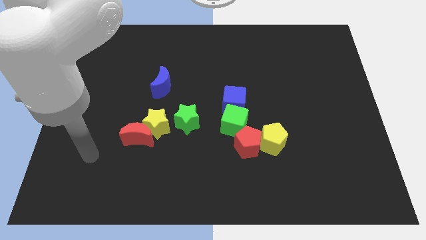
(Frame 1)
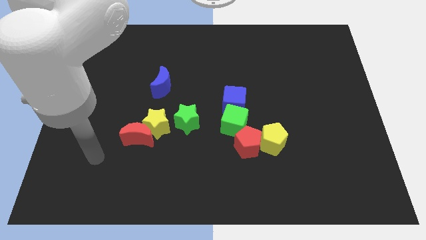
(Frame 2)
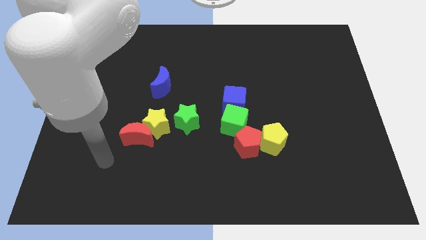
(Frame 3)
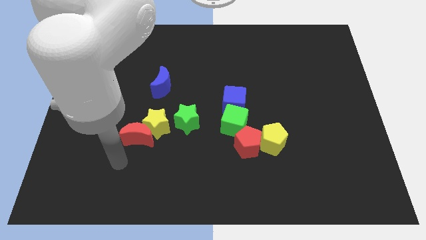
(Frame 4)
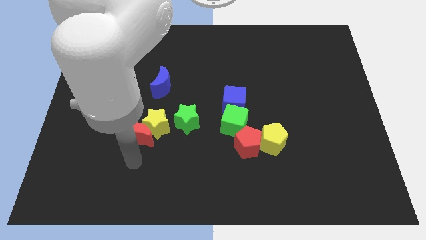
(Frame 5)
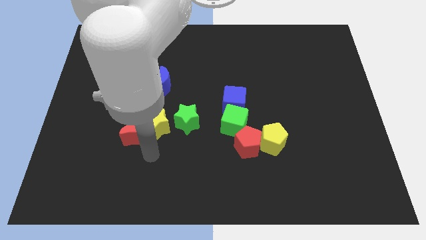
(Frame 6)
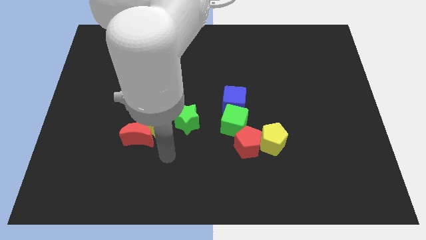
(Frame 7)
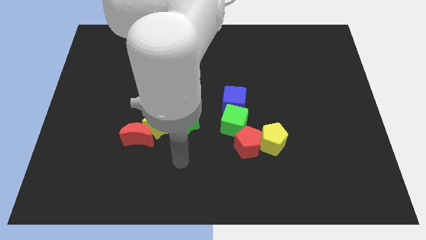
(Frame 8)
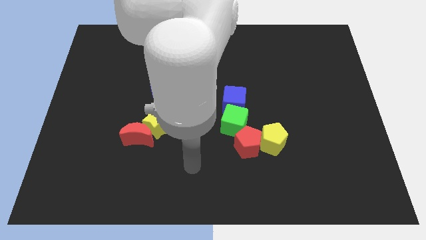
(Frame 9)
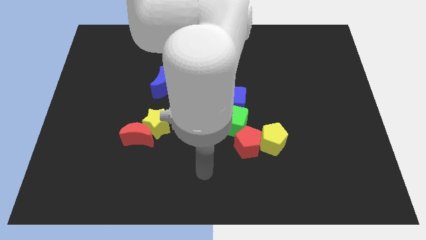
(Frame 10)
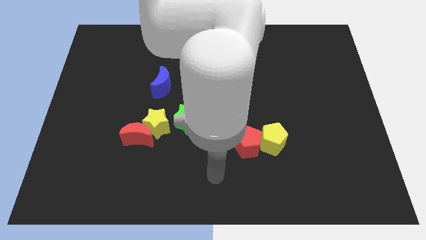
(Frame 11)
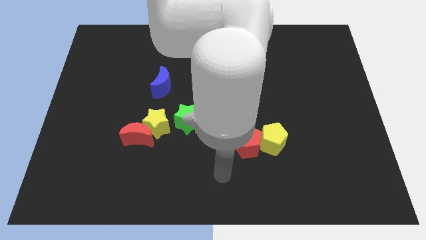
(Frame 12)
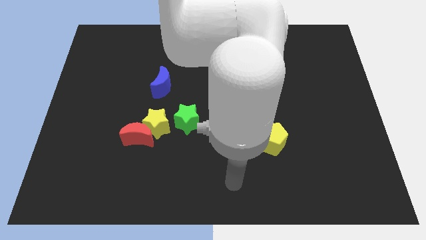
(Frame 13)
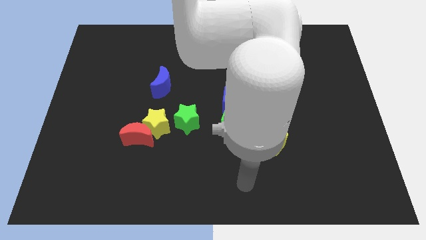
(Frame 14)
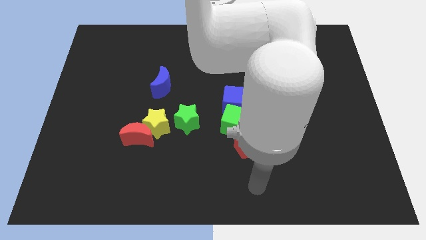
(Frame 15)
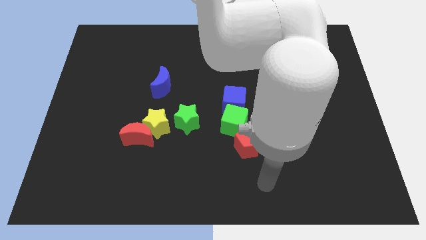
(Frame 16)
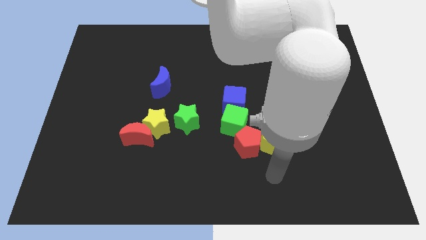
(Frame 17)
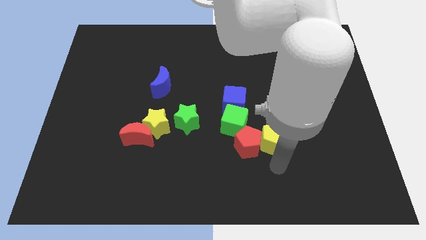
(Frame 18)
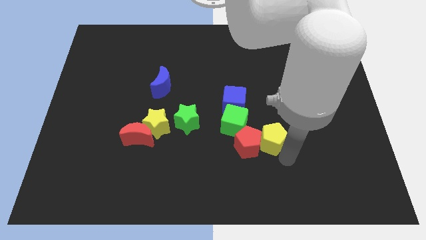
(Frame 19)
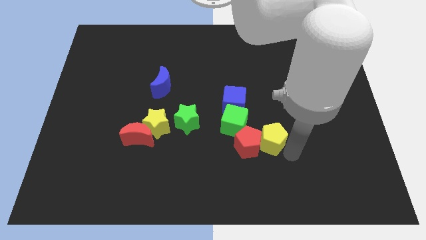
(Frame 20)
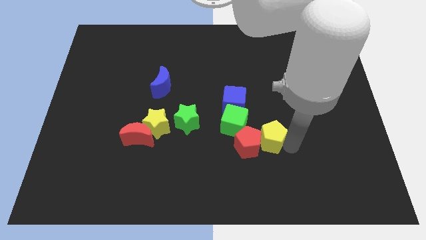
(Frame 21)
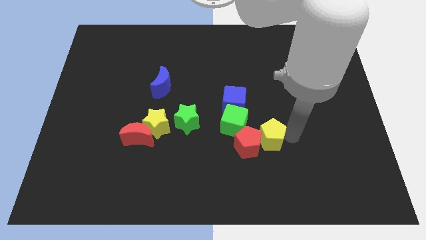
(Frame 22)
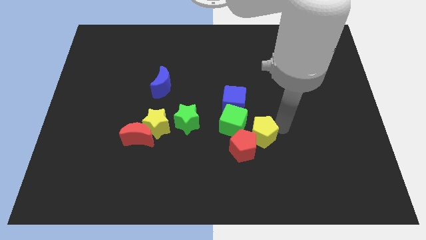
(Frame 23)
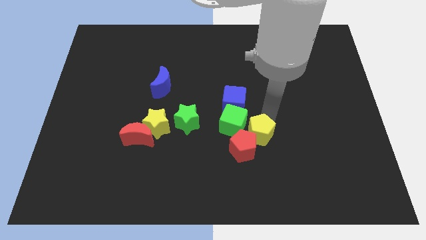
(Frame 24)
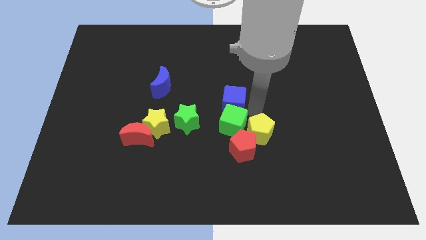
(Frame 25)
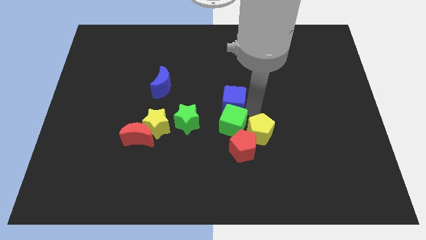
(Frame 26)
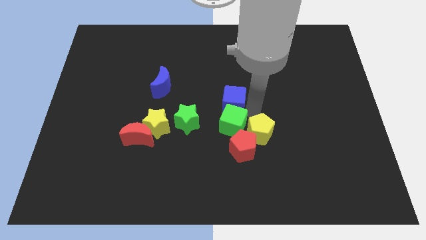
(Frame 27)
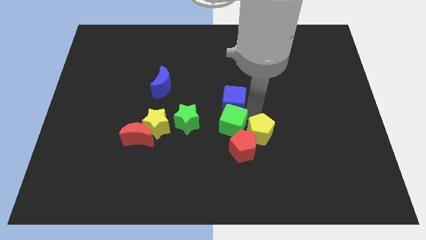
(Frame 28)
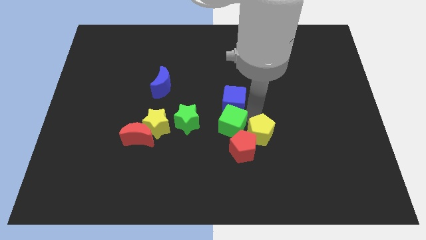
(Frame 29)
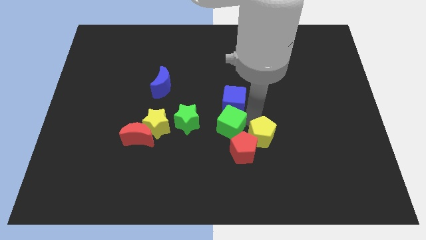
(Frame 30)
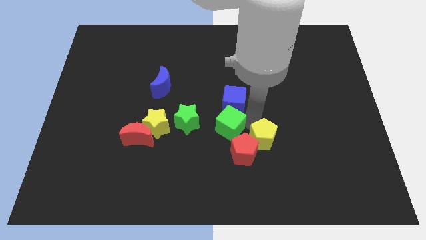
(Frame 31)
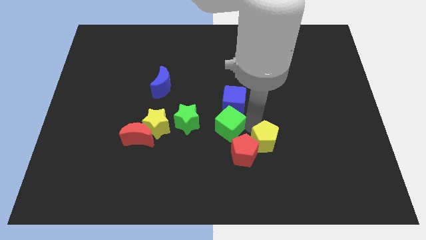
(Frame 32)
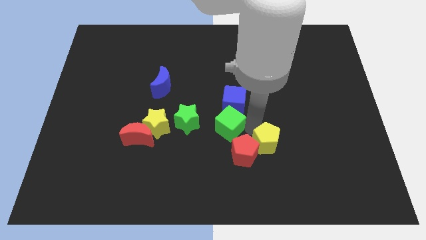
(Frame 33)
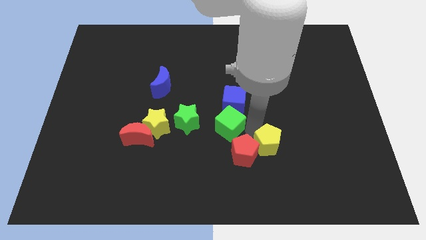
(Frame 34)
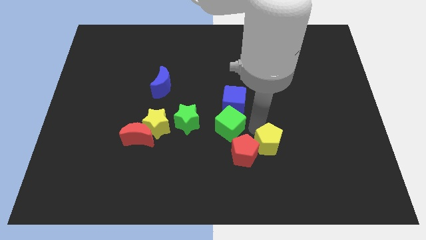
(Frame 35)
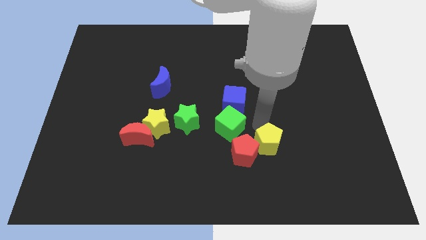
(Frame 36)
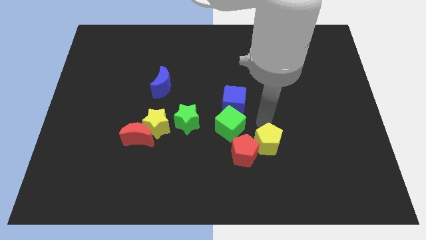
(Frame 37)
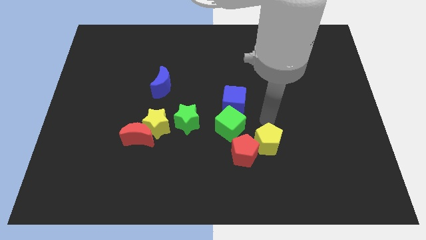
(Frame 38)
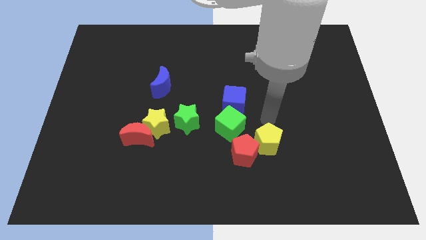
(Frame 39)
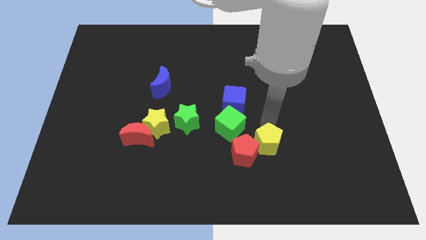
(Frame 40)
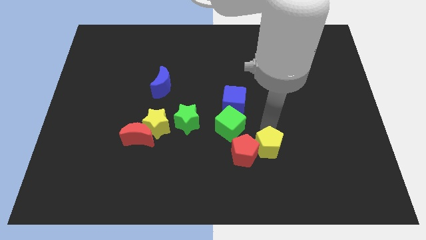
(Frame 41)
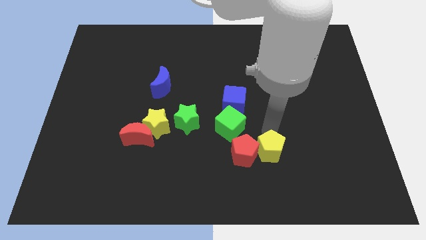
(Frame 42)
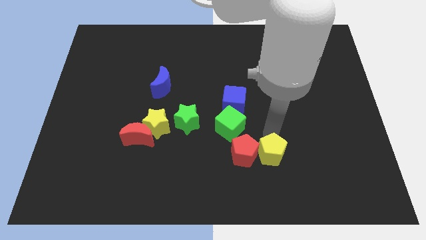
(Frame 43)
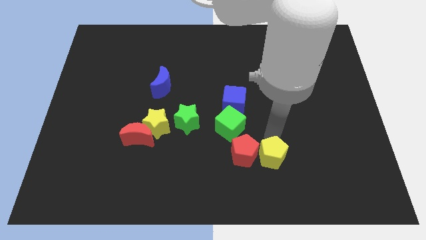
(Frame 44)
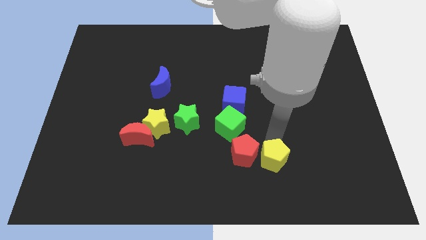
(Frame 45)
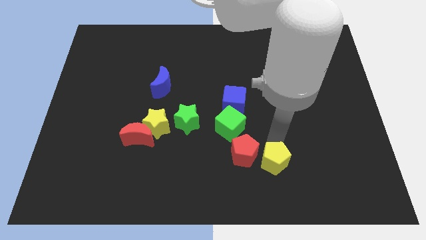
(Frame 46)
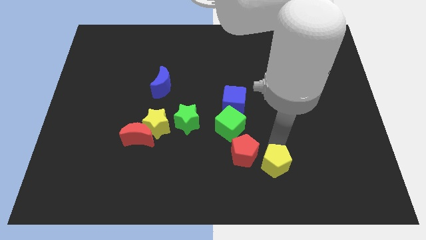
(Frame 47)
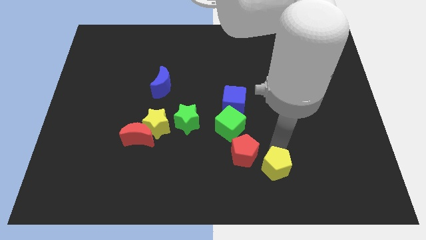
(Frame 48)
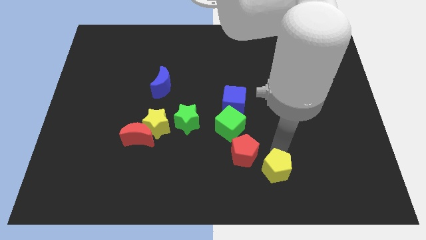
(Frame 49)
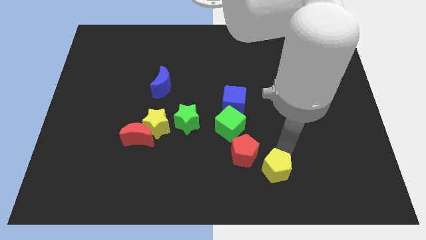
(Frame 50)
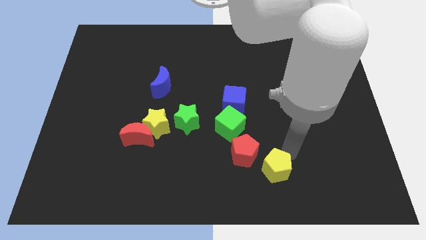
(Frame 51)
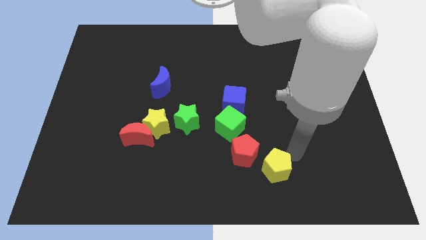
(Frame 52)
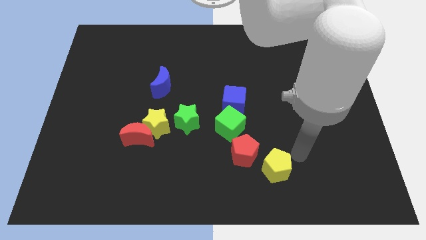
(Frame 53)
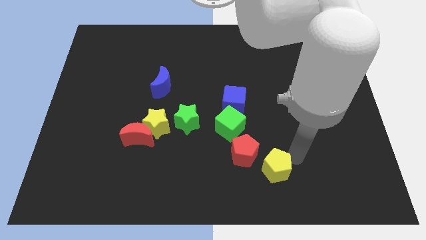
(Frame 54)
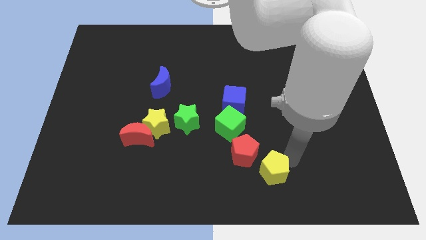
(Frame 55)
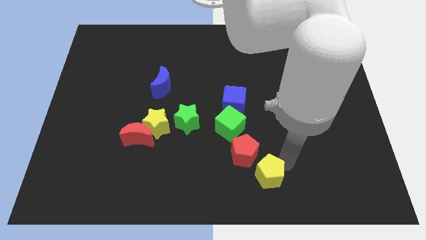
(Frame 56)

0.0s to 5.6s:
put the yellow pentagon to the bottom

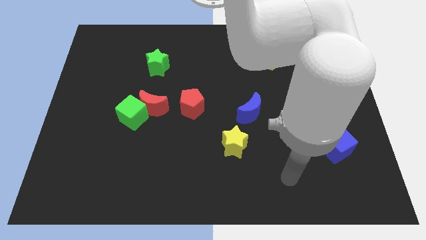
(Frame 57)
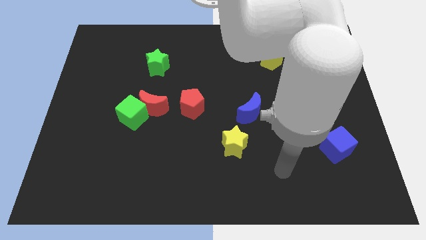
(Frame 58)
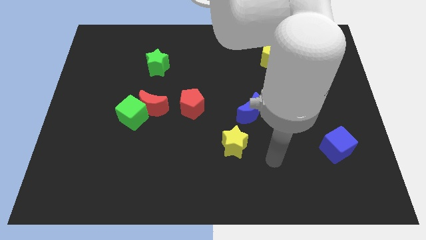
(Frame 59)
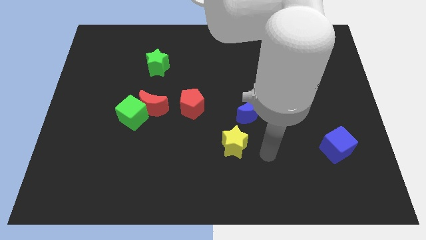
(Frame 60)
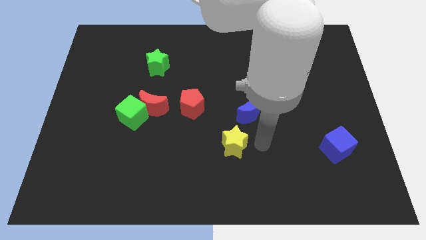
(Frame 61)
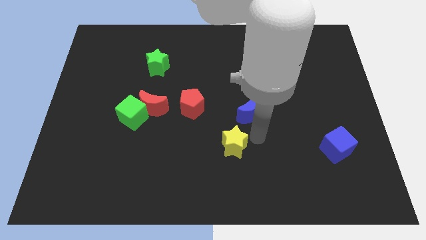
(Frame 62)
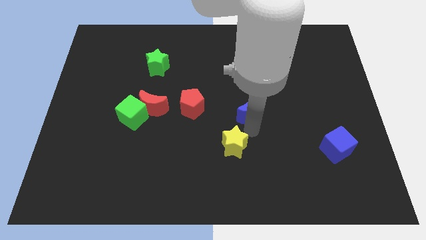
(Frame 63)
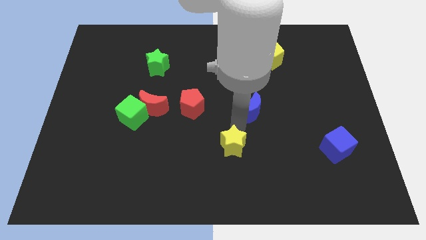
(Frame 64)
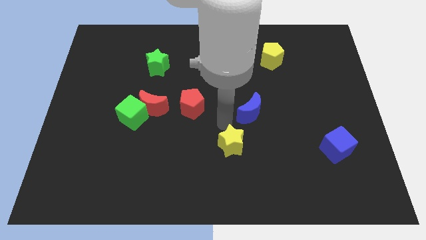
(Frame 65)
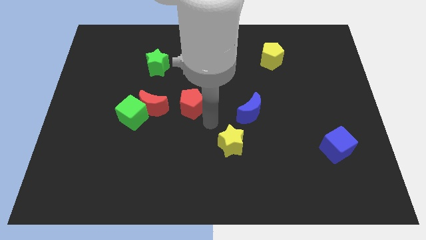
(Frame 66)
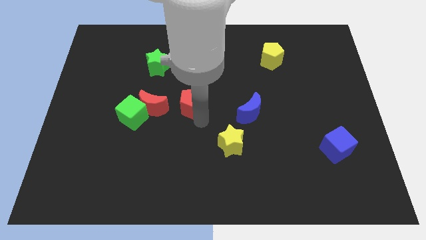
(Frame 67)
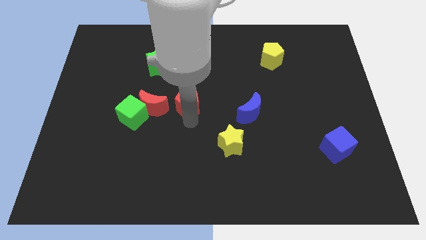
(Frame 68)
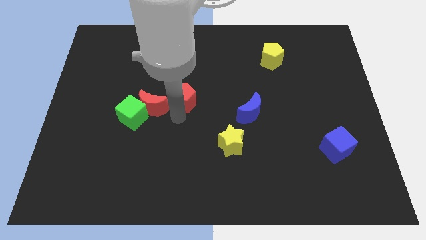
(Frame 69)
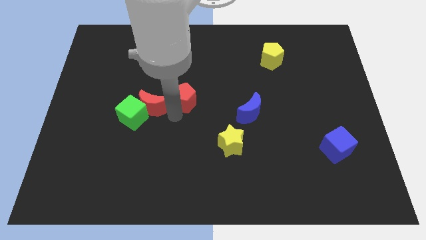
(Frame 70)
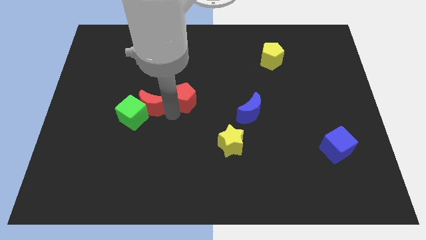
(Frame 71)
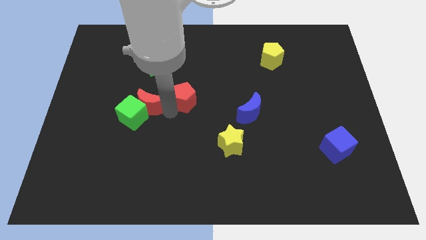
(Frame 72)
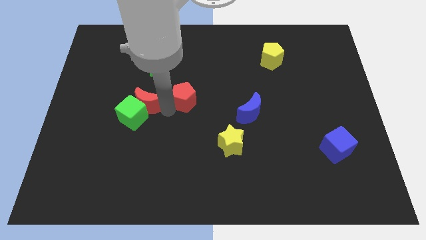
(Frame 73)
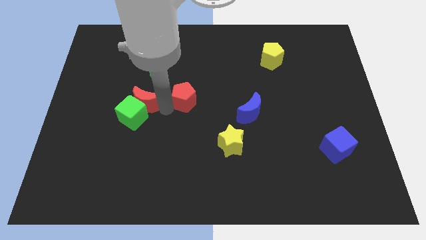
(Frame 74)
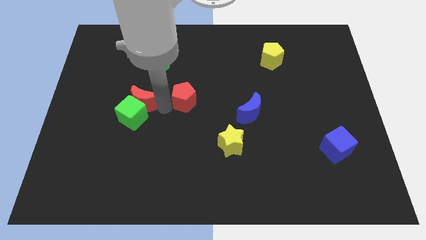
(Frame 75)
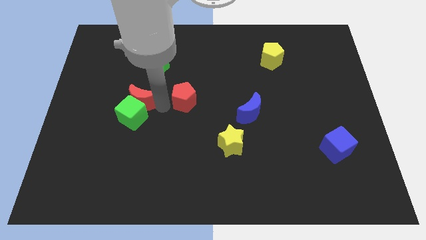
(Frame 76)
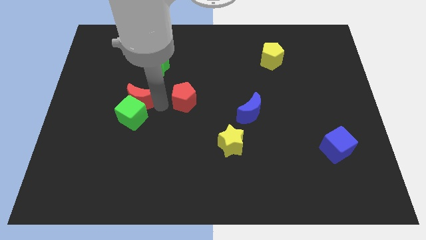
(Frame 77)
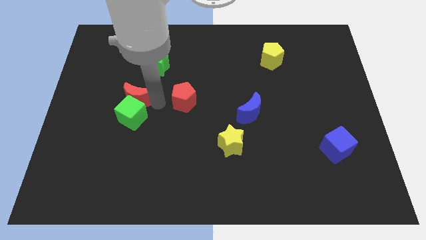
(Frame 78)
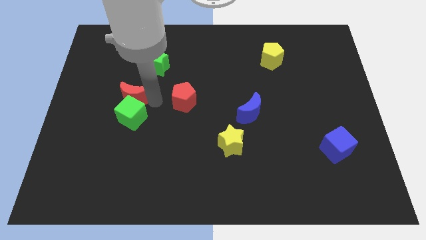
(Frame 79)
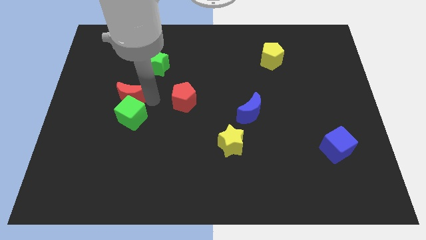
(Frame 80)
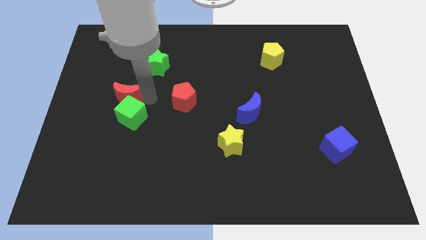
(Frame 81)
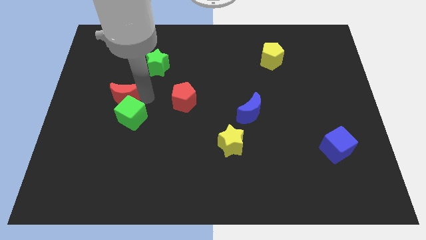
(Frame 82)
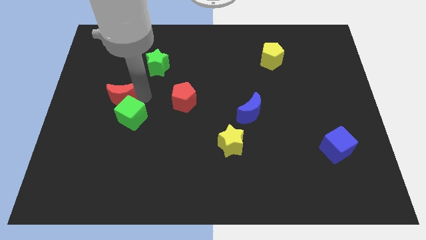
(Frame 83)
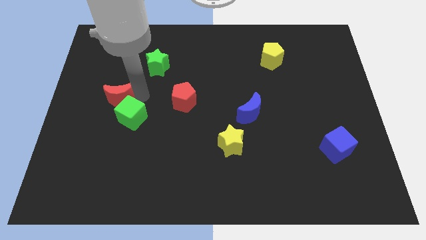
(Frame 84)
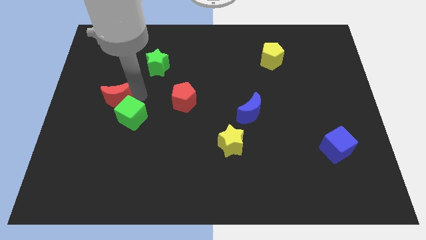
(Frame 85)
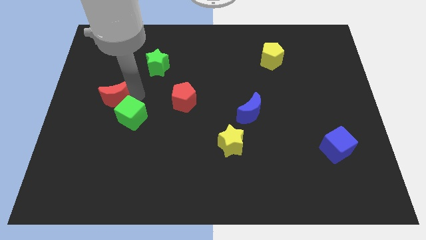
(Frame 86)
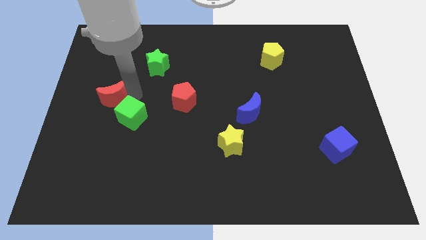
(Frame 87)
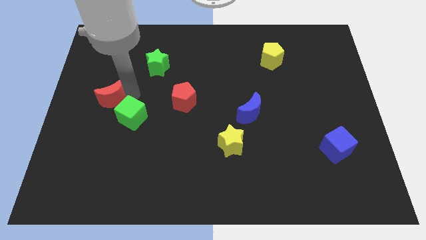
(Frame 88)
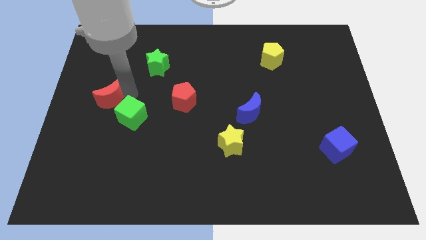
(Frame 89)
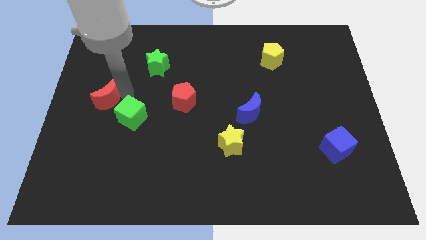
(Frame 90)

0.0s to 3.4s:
slide the red moon to the center left
